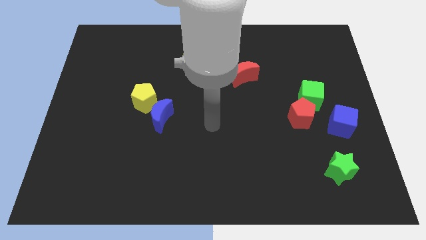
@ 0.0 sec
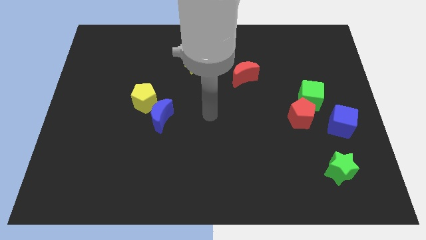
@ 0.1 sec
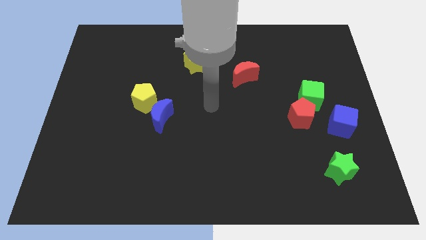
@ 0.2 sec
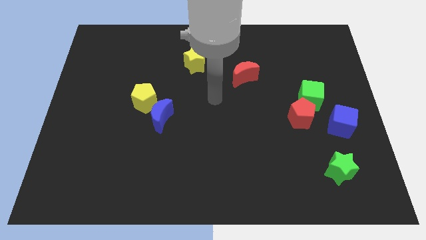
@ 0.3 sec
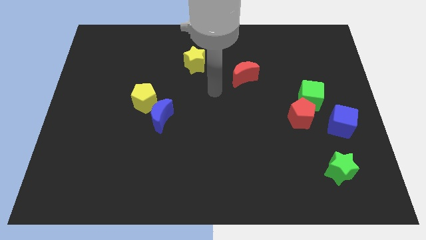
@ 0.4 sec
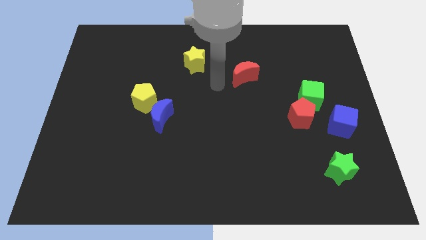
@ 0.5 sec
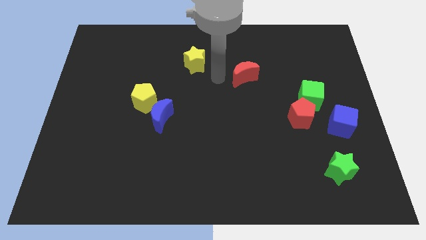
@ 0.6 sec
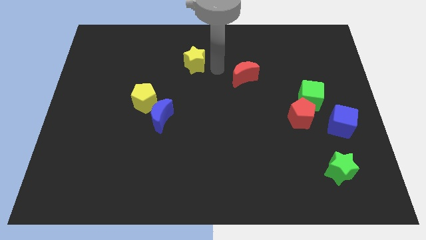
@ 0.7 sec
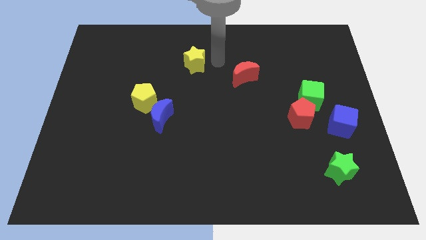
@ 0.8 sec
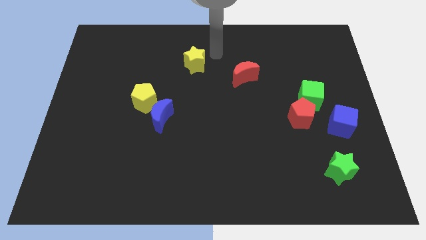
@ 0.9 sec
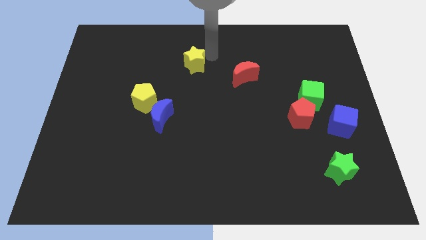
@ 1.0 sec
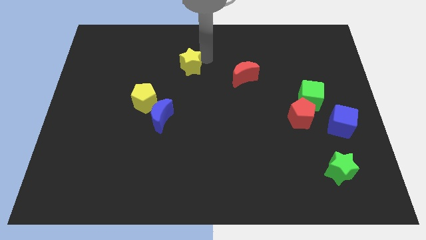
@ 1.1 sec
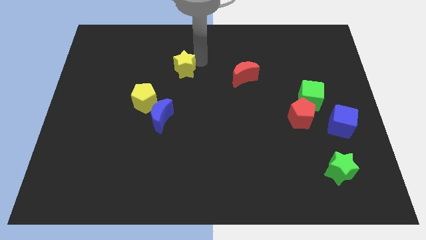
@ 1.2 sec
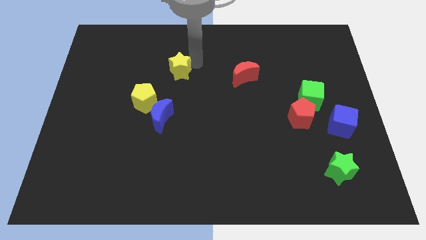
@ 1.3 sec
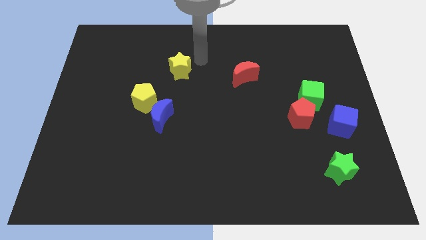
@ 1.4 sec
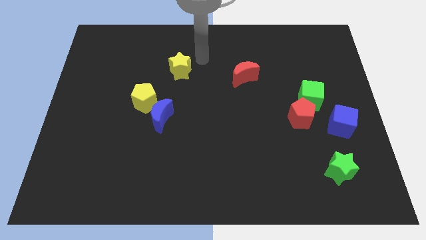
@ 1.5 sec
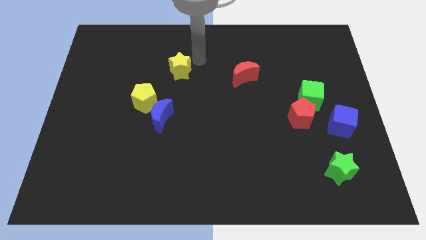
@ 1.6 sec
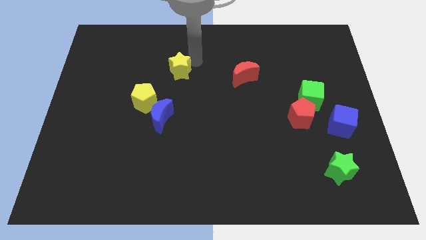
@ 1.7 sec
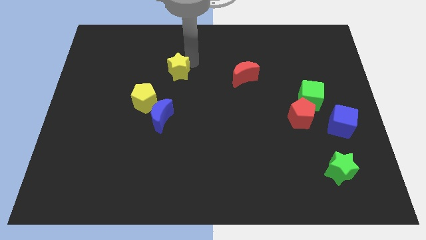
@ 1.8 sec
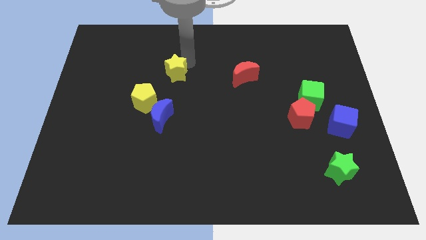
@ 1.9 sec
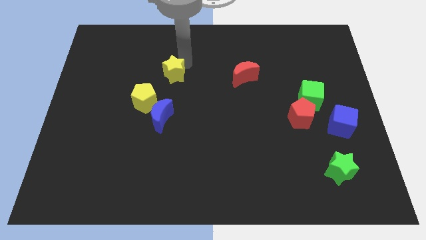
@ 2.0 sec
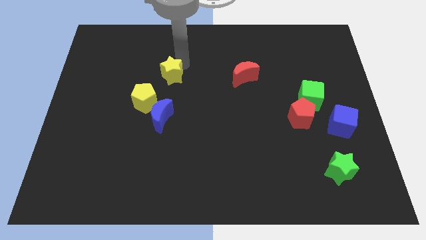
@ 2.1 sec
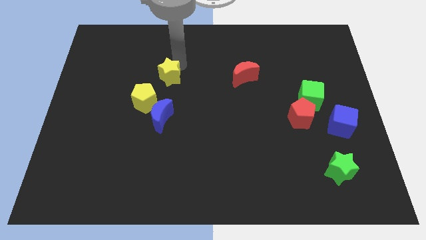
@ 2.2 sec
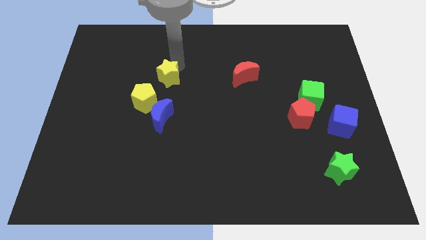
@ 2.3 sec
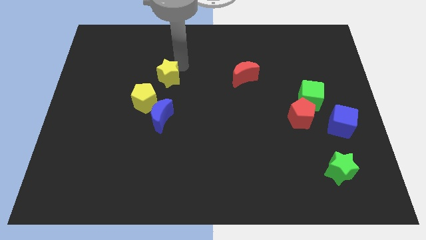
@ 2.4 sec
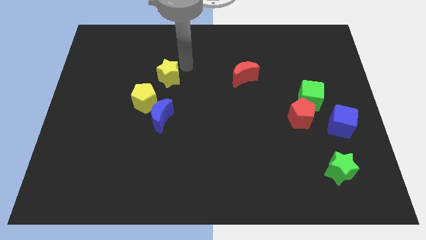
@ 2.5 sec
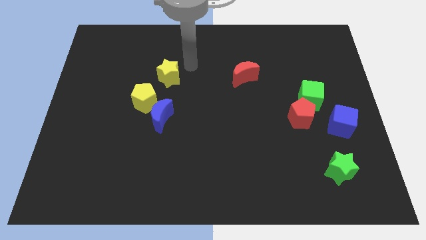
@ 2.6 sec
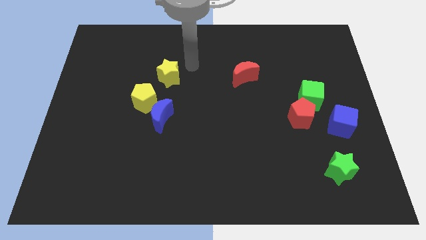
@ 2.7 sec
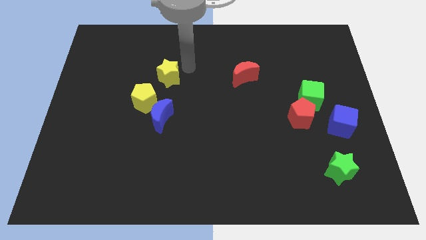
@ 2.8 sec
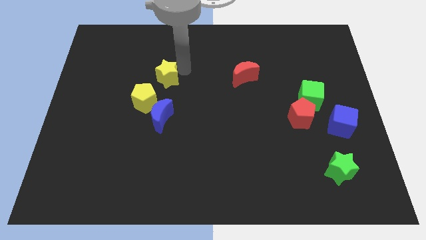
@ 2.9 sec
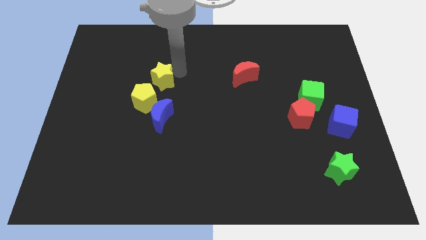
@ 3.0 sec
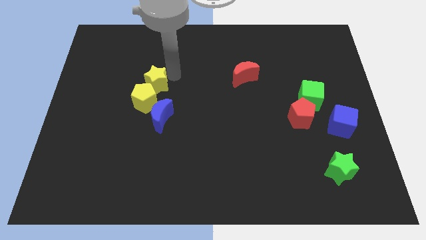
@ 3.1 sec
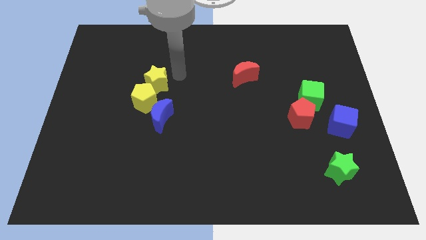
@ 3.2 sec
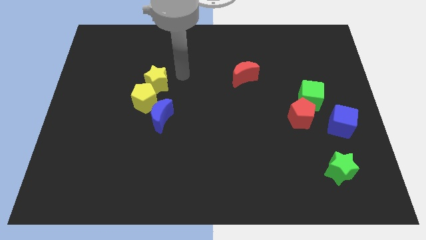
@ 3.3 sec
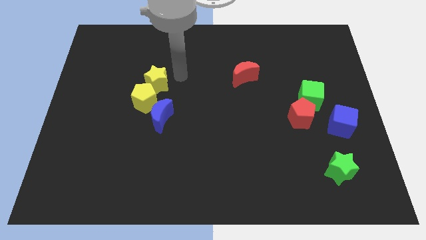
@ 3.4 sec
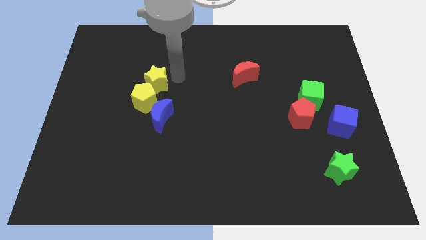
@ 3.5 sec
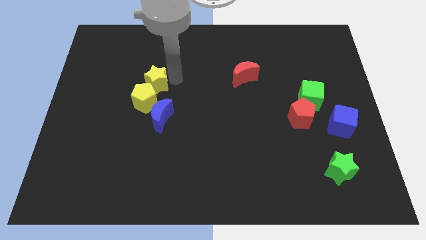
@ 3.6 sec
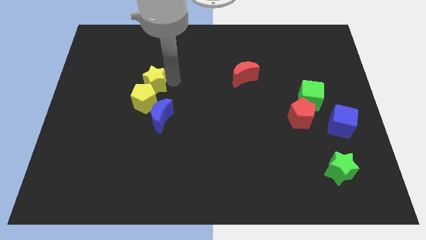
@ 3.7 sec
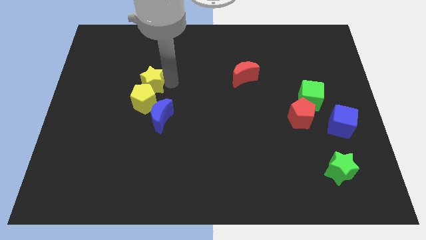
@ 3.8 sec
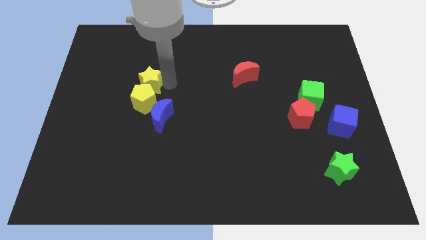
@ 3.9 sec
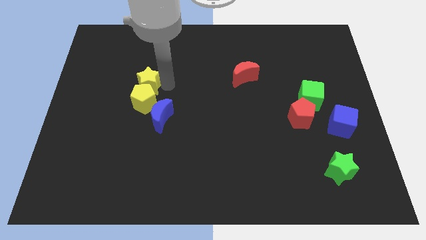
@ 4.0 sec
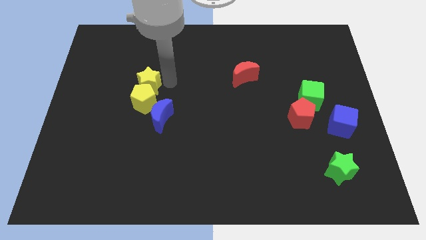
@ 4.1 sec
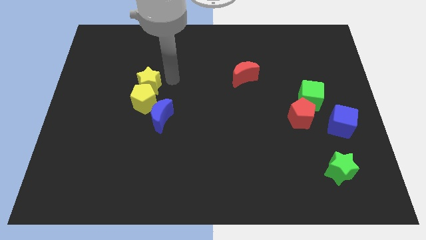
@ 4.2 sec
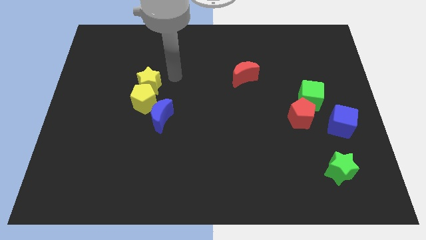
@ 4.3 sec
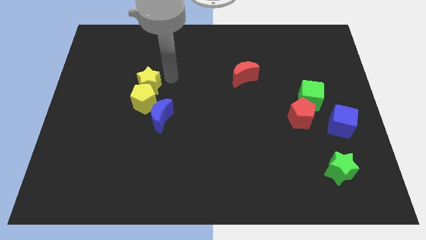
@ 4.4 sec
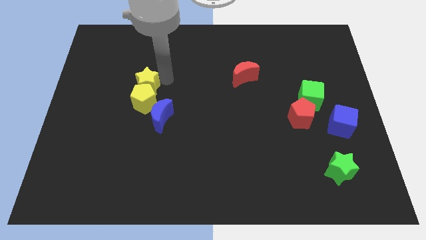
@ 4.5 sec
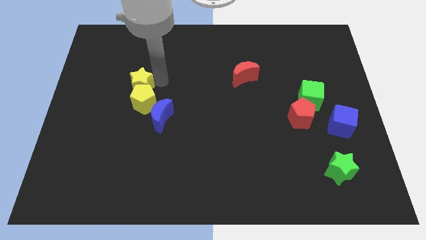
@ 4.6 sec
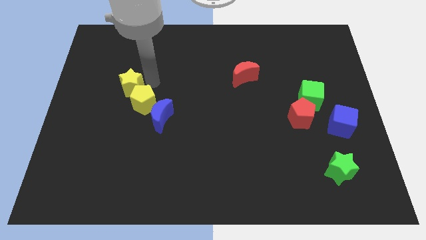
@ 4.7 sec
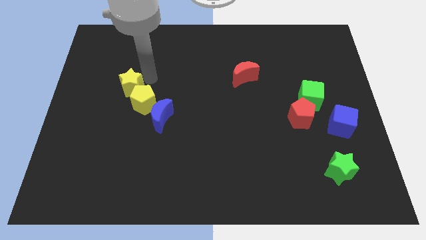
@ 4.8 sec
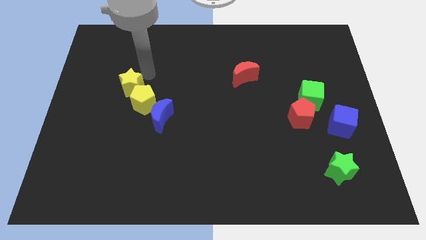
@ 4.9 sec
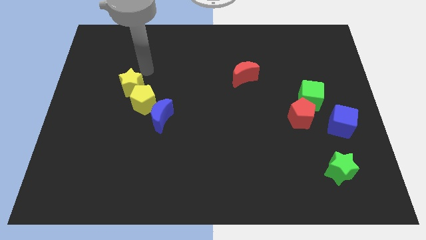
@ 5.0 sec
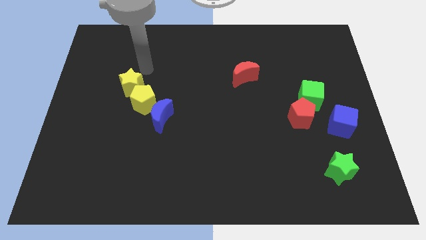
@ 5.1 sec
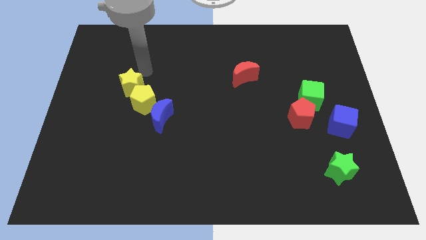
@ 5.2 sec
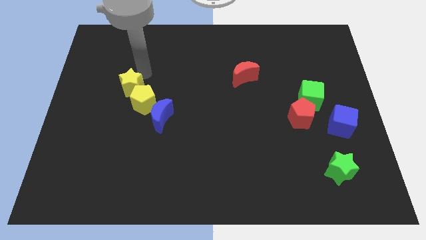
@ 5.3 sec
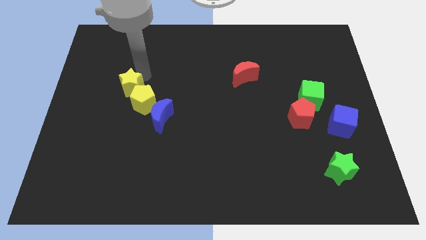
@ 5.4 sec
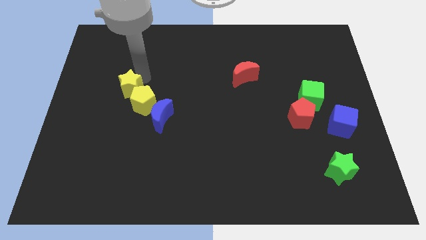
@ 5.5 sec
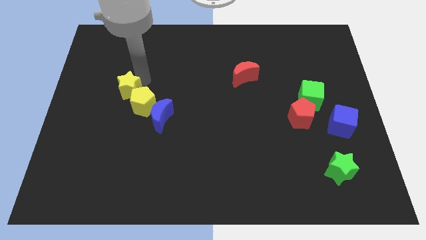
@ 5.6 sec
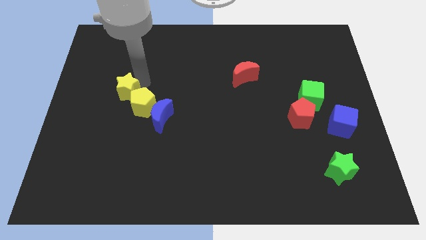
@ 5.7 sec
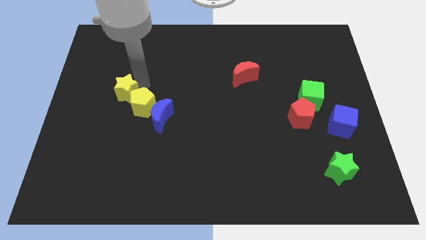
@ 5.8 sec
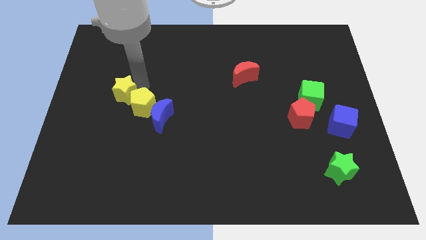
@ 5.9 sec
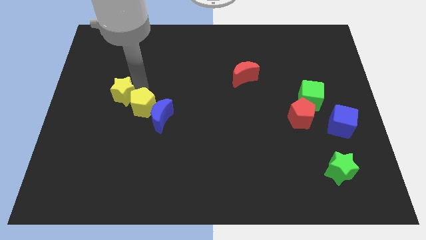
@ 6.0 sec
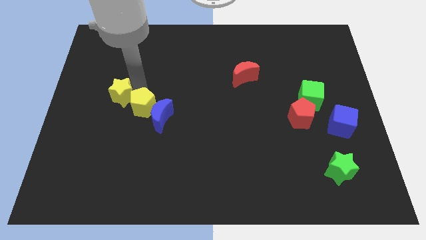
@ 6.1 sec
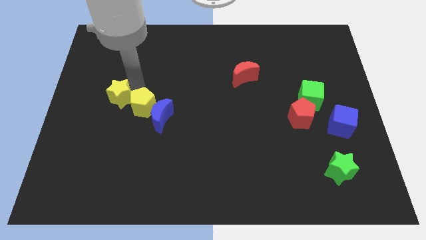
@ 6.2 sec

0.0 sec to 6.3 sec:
push the yellow star down and left diagonally

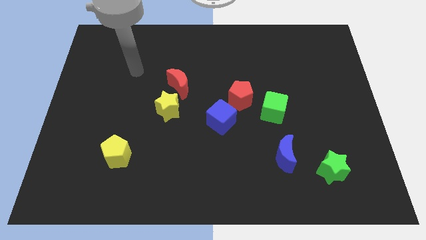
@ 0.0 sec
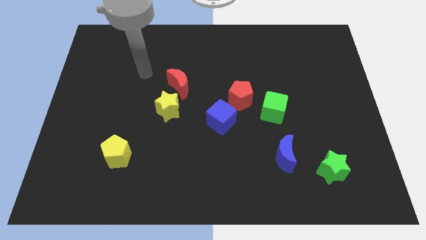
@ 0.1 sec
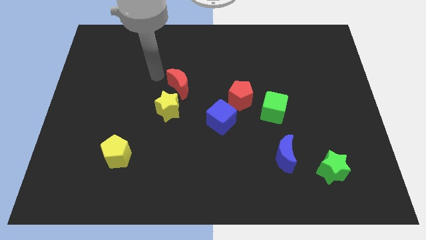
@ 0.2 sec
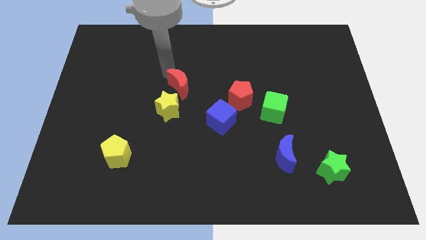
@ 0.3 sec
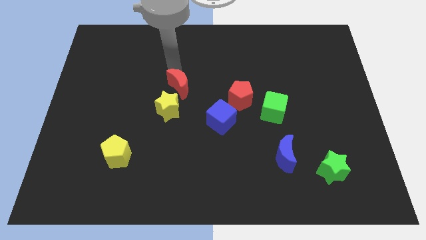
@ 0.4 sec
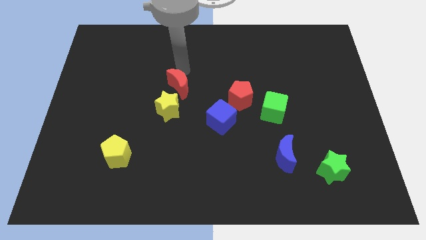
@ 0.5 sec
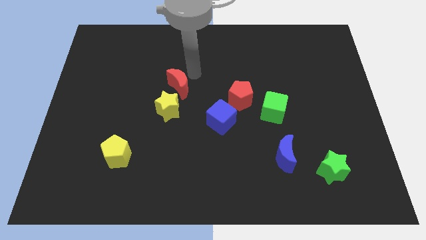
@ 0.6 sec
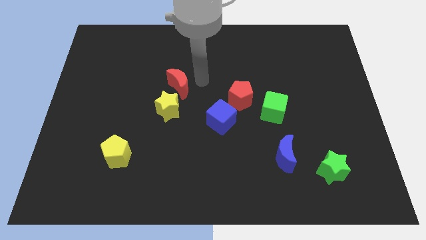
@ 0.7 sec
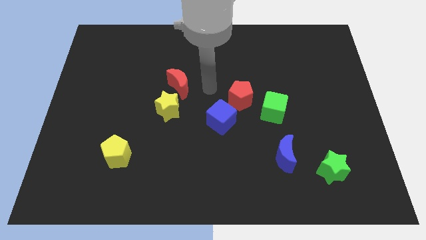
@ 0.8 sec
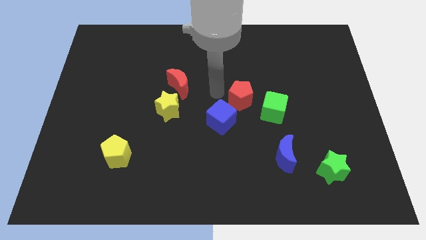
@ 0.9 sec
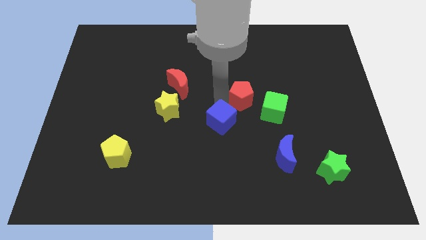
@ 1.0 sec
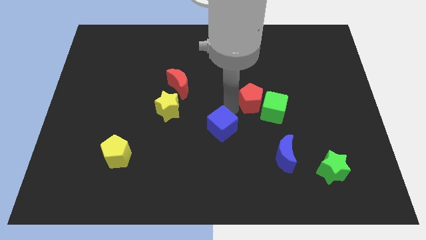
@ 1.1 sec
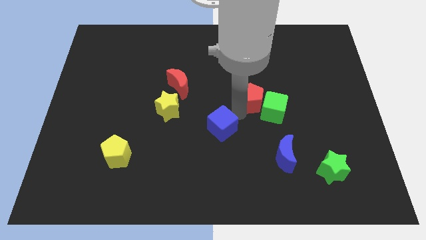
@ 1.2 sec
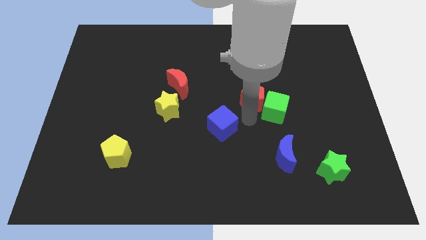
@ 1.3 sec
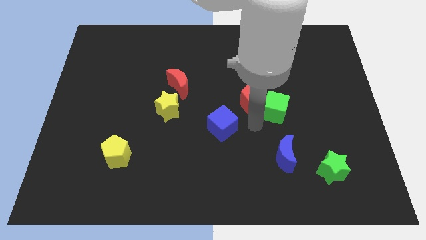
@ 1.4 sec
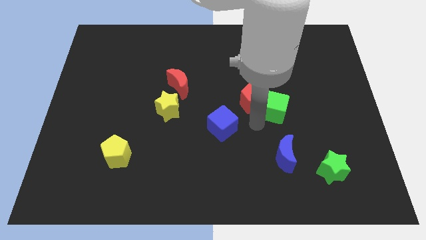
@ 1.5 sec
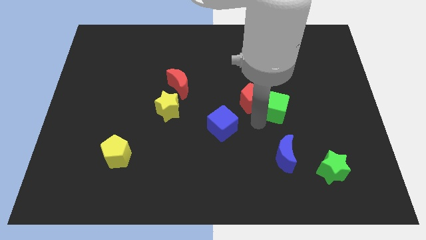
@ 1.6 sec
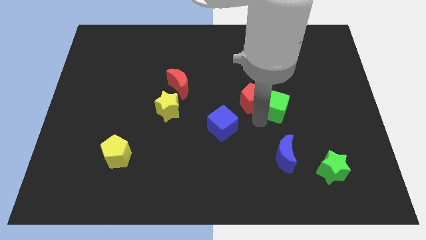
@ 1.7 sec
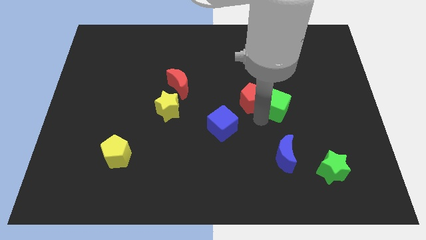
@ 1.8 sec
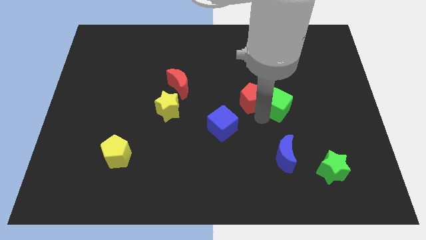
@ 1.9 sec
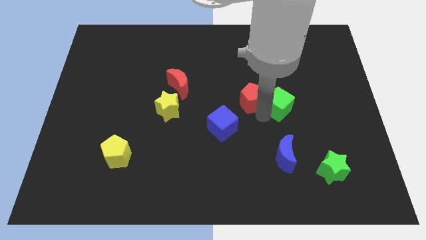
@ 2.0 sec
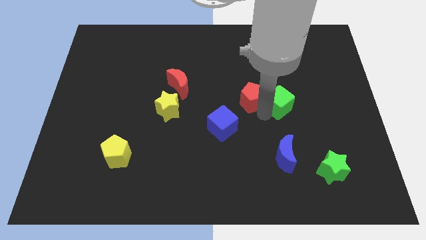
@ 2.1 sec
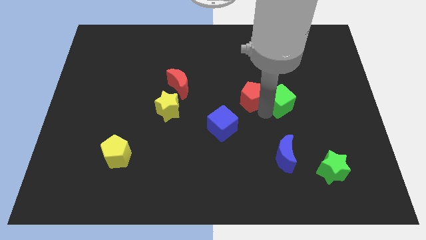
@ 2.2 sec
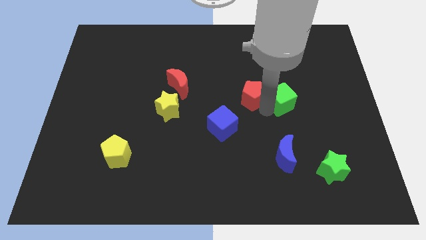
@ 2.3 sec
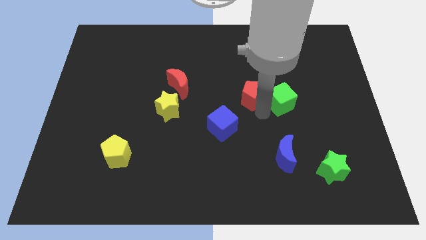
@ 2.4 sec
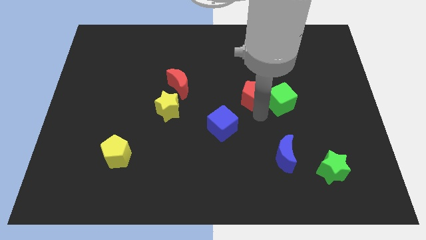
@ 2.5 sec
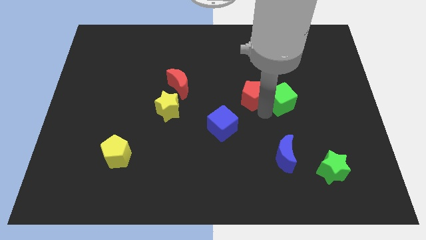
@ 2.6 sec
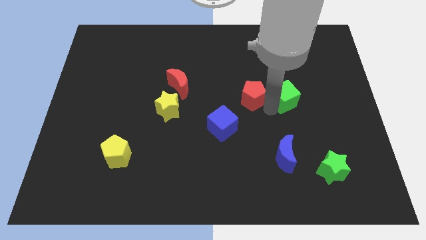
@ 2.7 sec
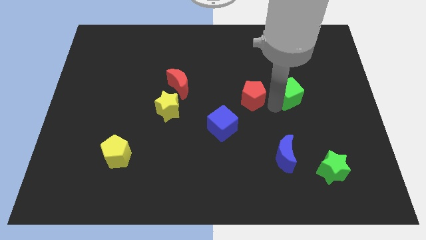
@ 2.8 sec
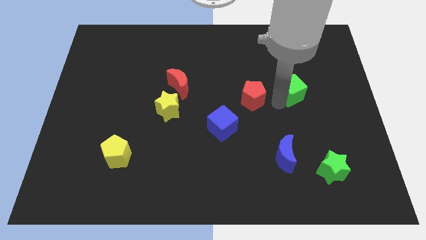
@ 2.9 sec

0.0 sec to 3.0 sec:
slide the green cube up and to the right a bit
